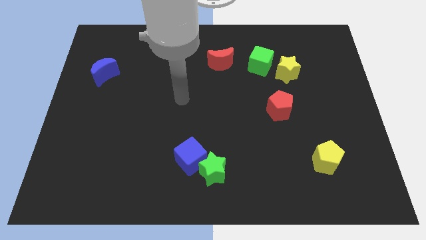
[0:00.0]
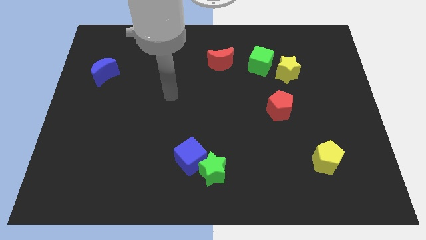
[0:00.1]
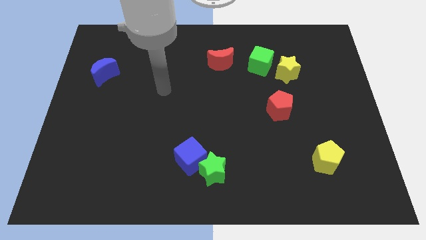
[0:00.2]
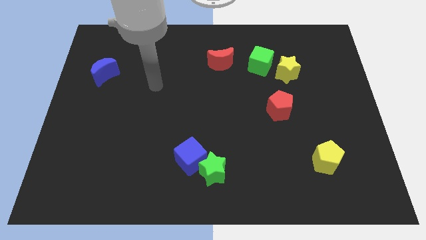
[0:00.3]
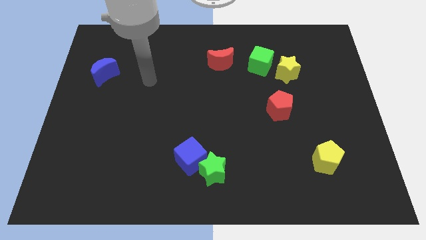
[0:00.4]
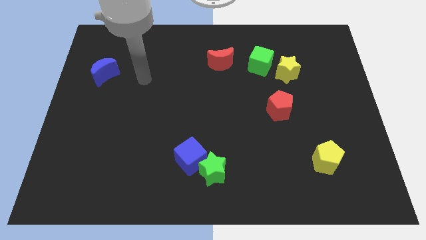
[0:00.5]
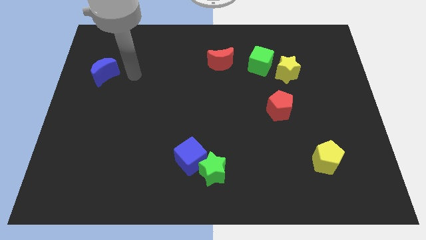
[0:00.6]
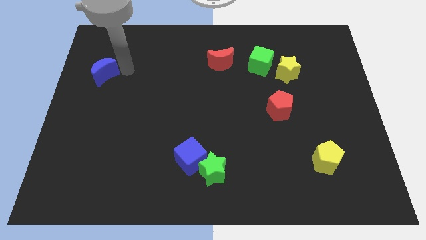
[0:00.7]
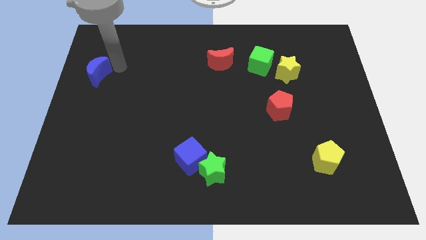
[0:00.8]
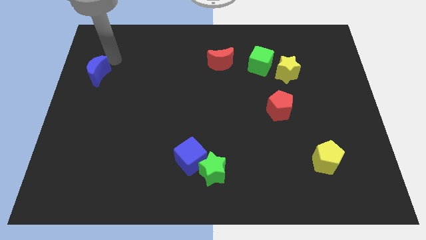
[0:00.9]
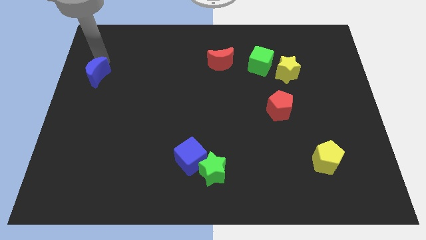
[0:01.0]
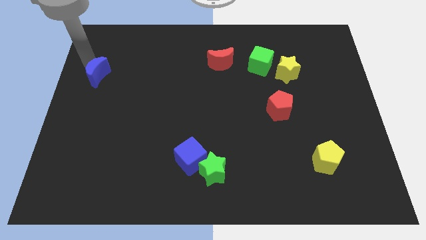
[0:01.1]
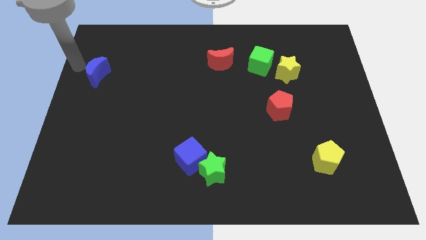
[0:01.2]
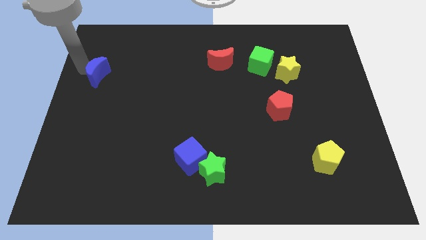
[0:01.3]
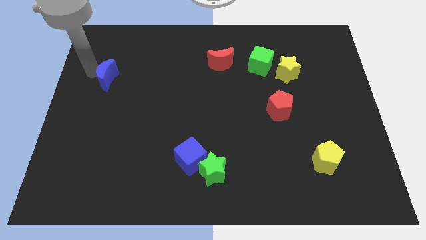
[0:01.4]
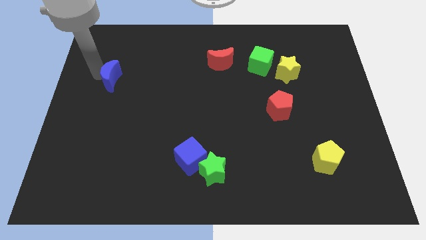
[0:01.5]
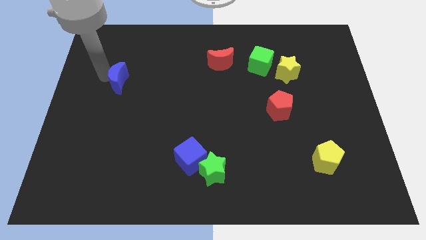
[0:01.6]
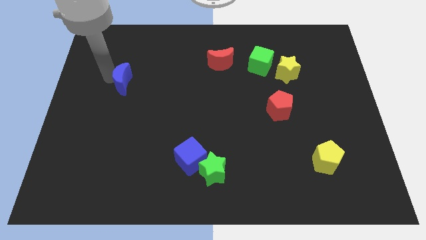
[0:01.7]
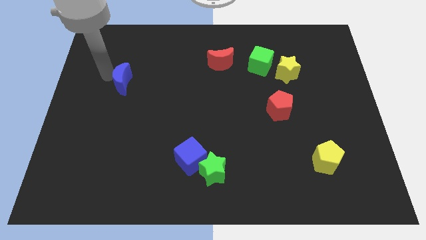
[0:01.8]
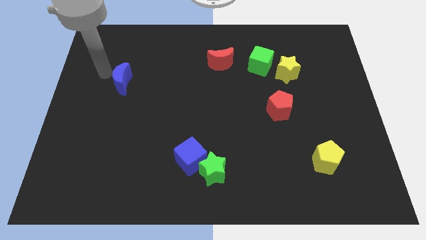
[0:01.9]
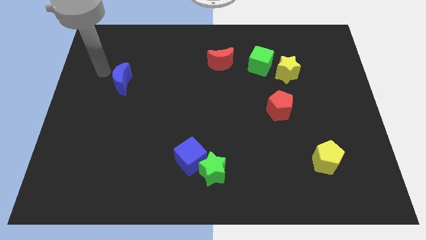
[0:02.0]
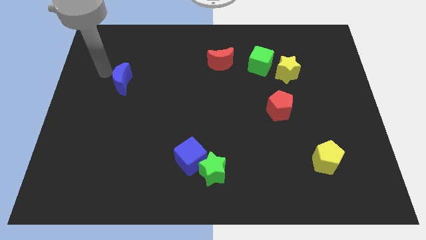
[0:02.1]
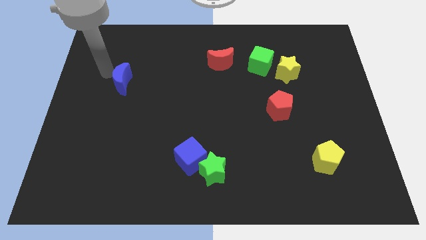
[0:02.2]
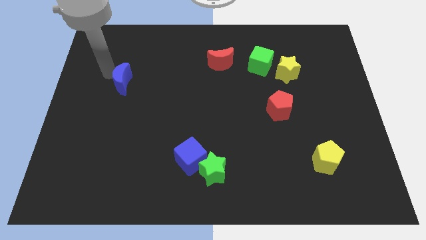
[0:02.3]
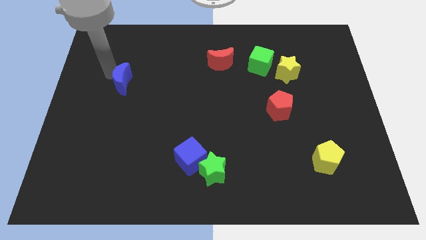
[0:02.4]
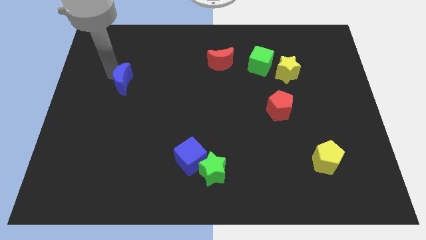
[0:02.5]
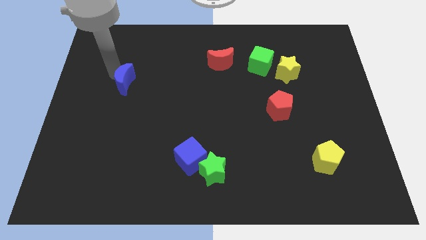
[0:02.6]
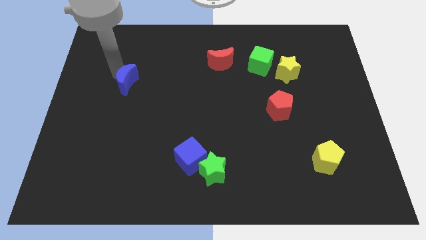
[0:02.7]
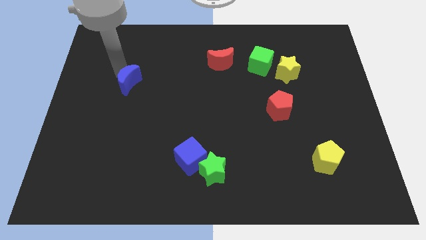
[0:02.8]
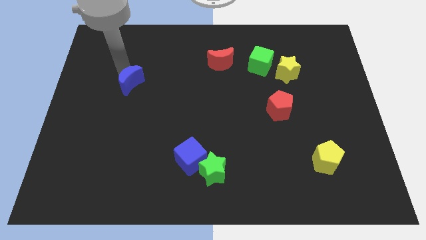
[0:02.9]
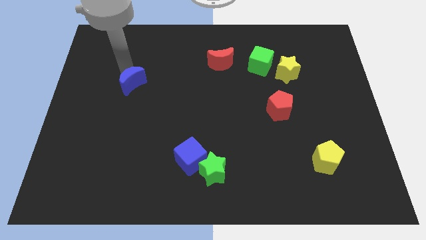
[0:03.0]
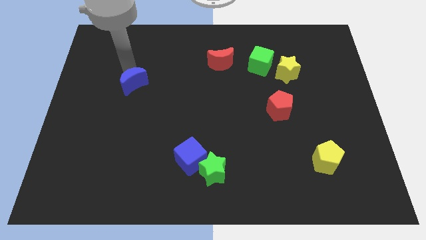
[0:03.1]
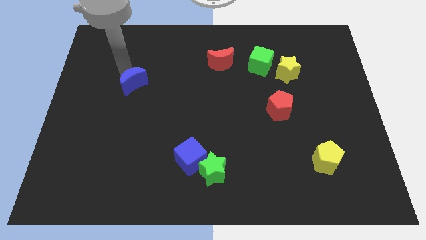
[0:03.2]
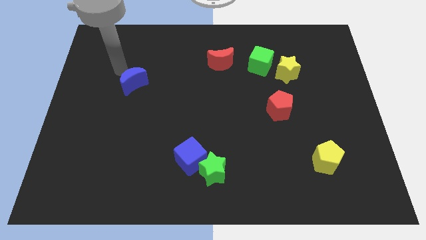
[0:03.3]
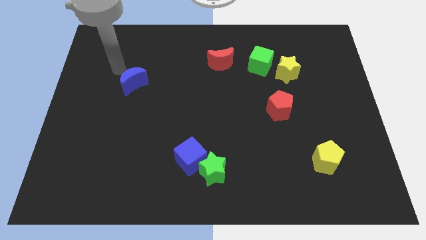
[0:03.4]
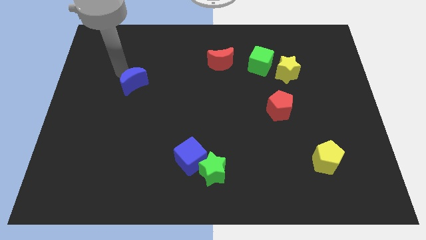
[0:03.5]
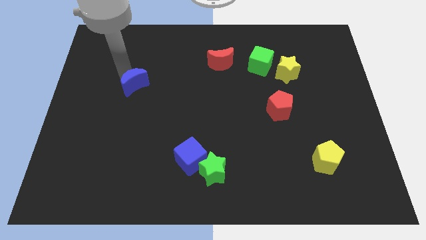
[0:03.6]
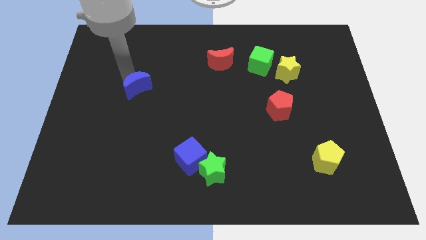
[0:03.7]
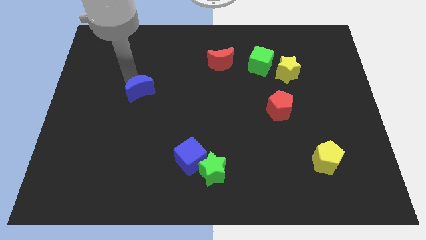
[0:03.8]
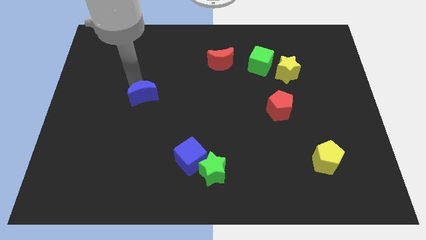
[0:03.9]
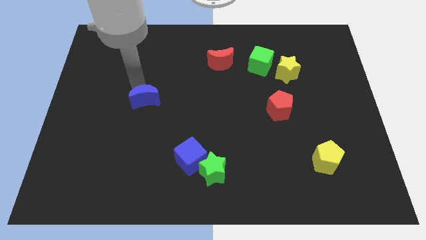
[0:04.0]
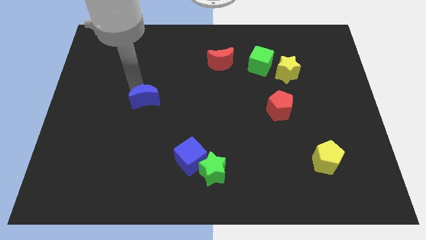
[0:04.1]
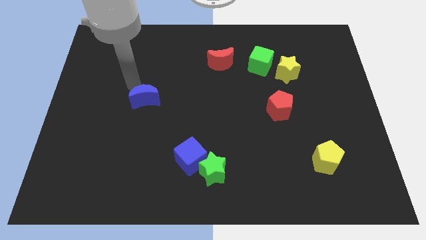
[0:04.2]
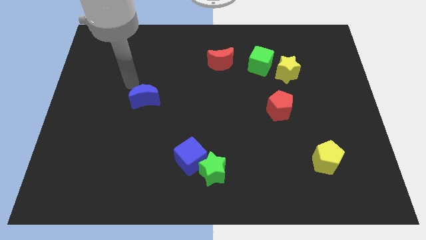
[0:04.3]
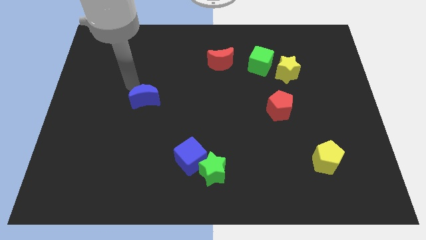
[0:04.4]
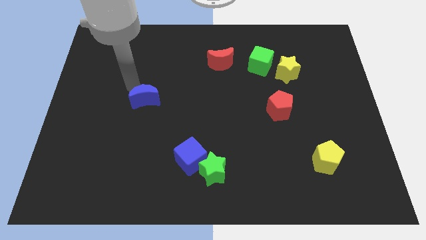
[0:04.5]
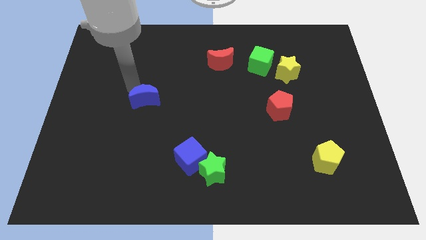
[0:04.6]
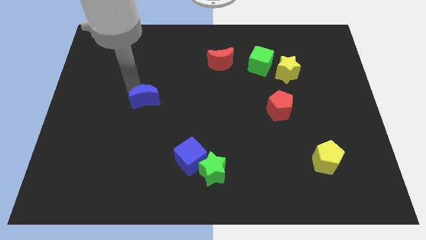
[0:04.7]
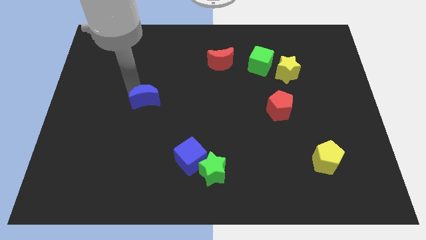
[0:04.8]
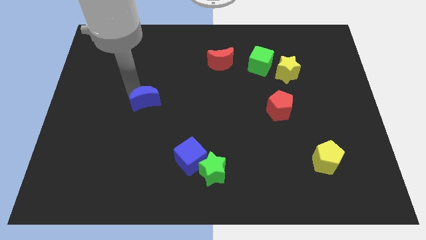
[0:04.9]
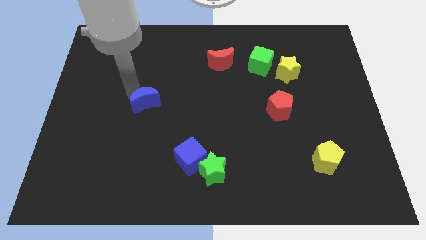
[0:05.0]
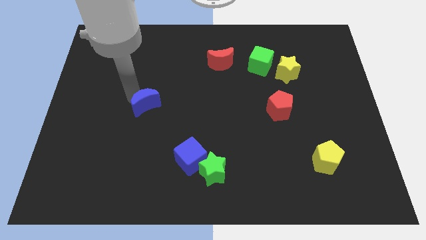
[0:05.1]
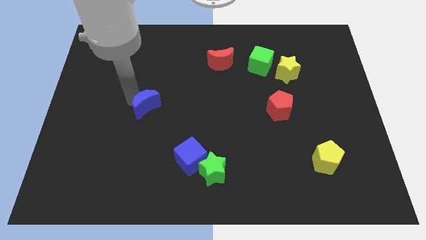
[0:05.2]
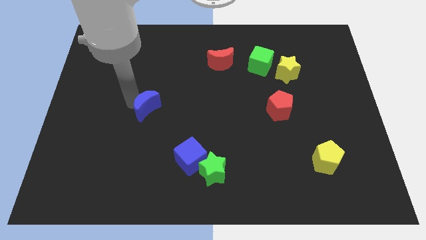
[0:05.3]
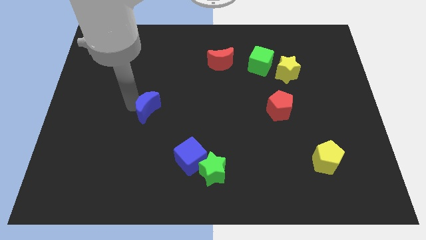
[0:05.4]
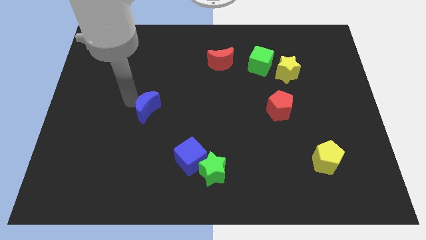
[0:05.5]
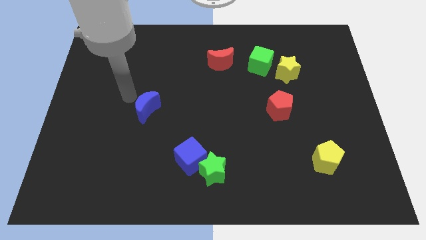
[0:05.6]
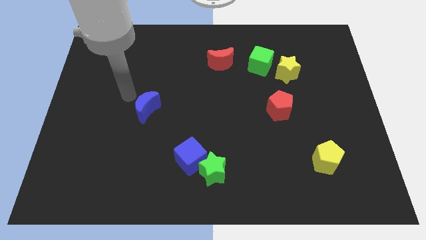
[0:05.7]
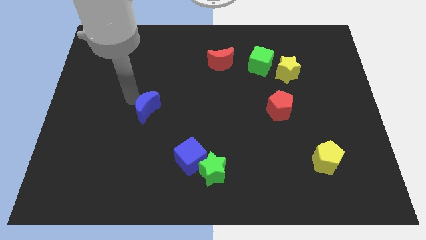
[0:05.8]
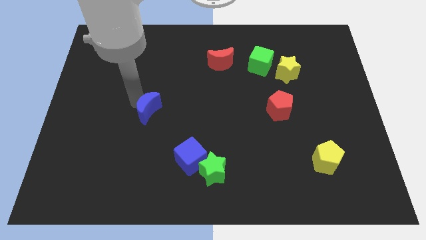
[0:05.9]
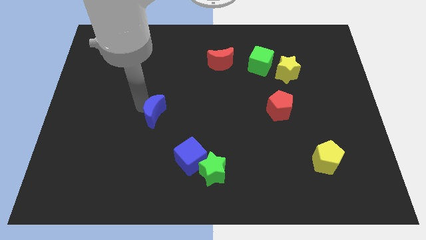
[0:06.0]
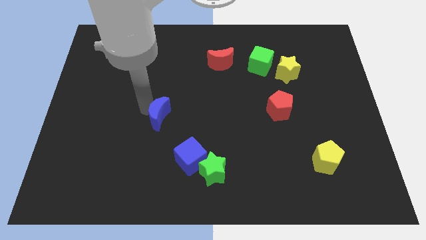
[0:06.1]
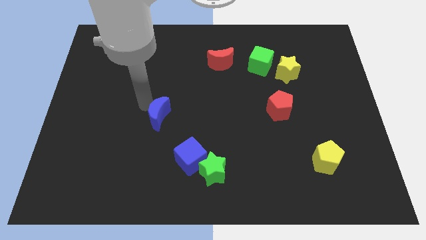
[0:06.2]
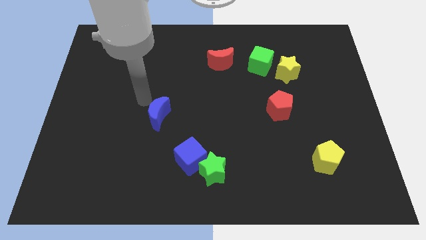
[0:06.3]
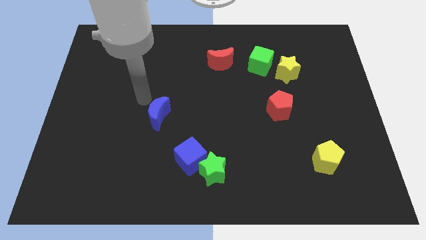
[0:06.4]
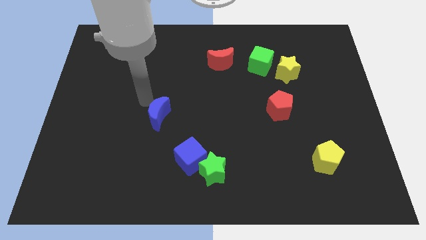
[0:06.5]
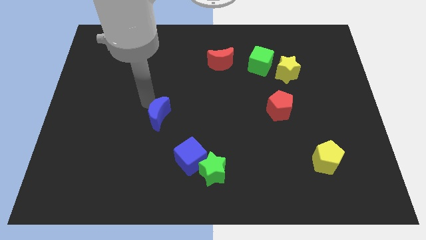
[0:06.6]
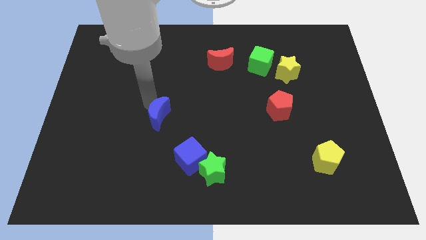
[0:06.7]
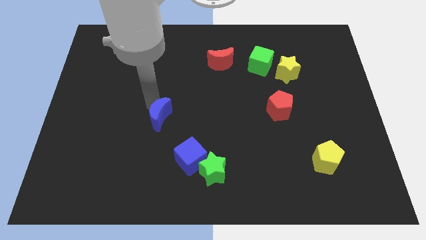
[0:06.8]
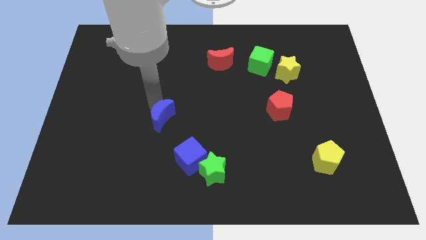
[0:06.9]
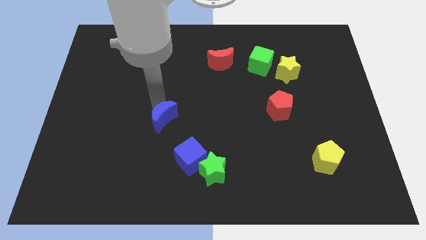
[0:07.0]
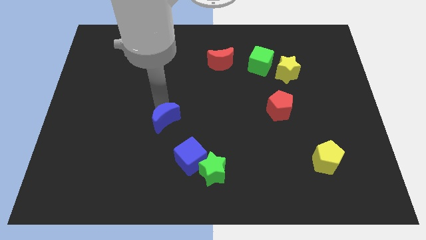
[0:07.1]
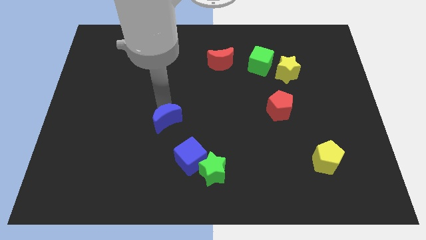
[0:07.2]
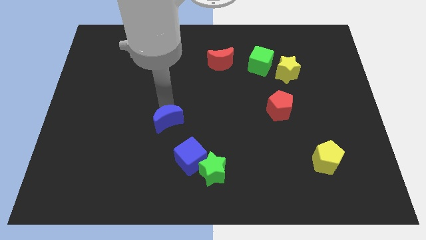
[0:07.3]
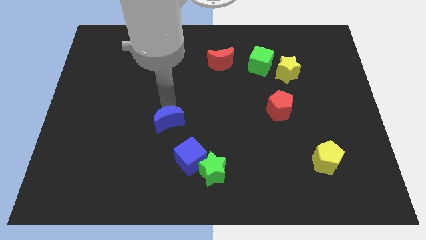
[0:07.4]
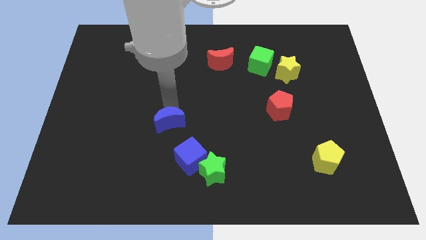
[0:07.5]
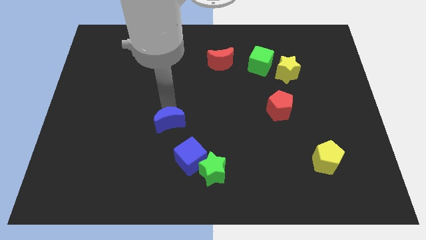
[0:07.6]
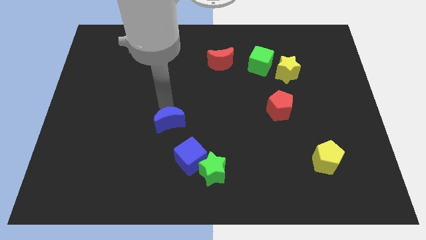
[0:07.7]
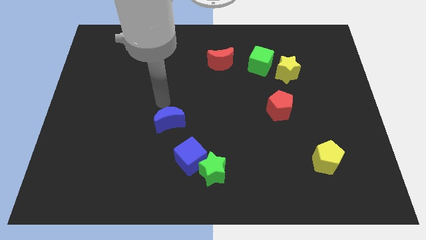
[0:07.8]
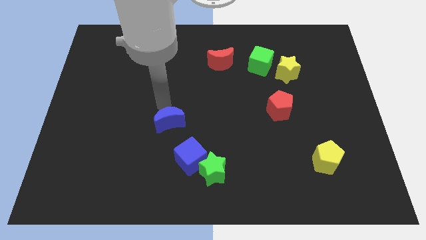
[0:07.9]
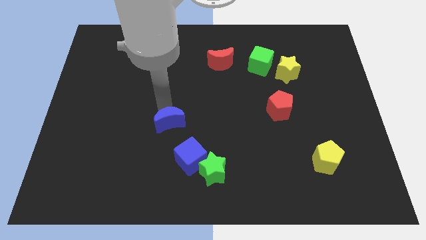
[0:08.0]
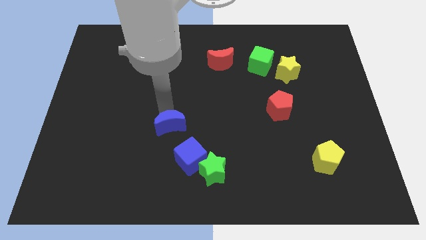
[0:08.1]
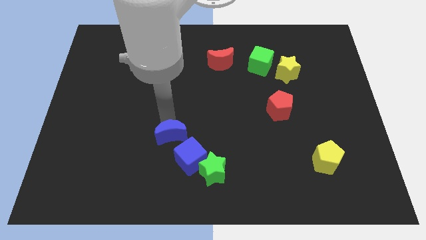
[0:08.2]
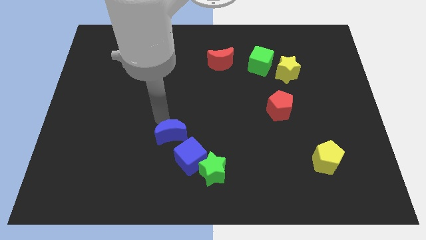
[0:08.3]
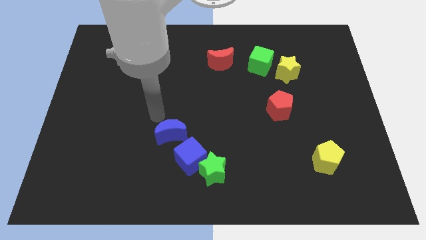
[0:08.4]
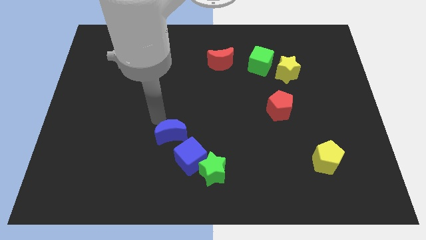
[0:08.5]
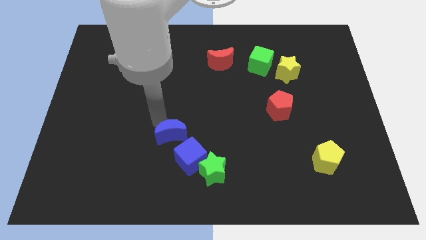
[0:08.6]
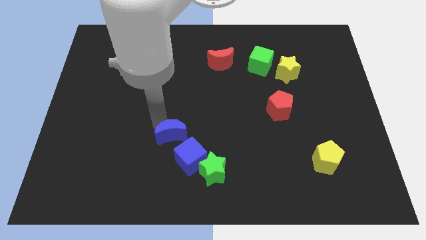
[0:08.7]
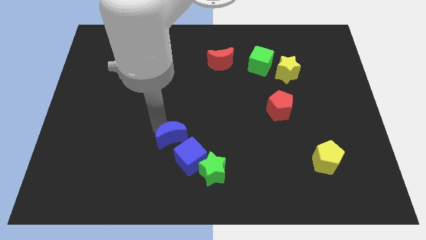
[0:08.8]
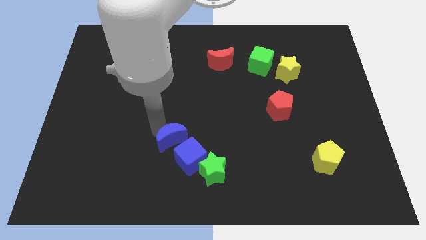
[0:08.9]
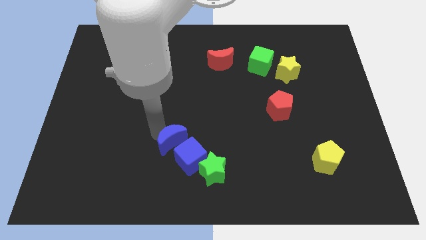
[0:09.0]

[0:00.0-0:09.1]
slide the blue moon to the blue cube
